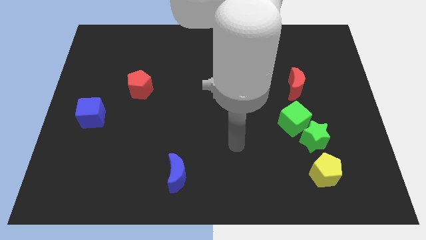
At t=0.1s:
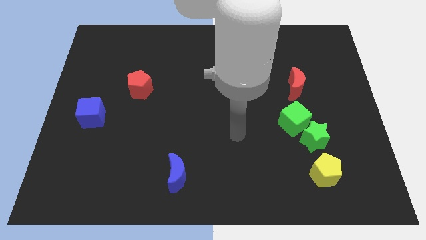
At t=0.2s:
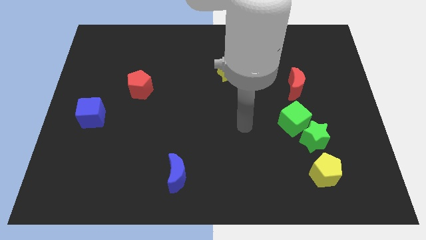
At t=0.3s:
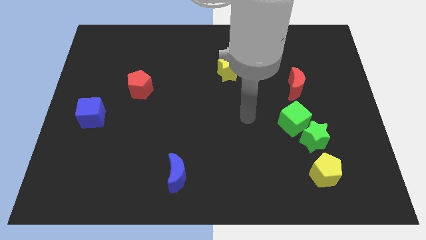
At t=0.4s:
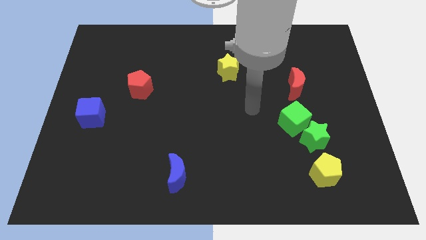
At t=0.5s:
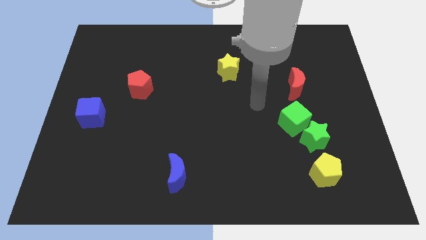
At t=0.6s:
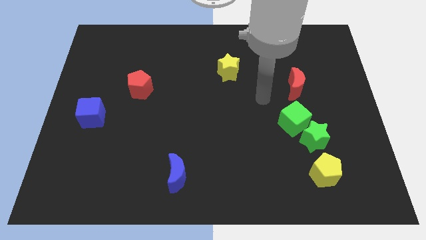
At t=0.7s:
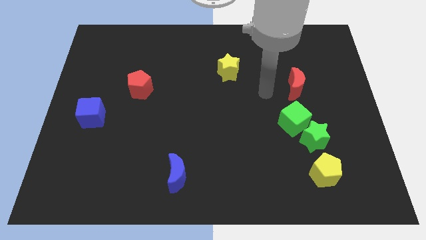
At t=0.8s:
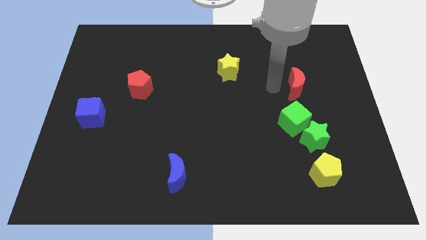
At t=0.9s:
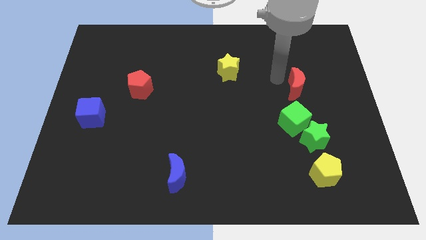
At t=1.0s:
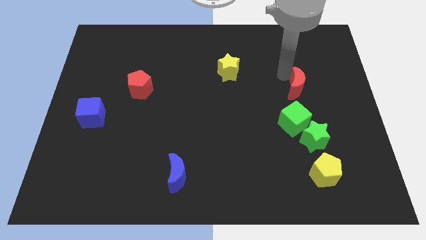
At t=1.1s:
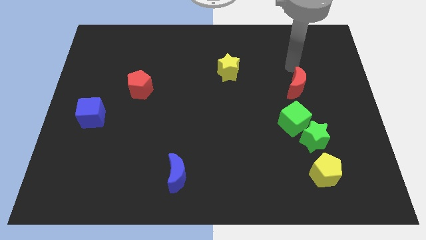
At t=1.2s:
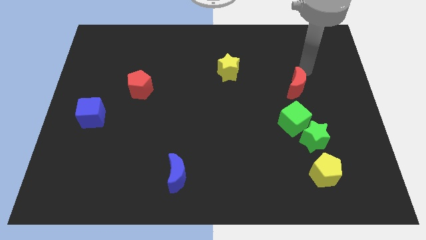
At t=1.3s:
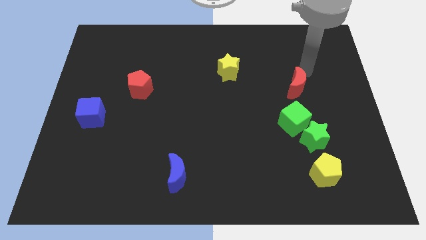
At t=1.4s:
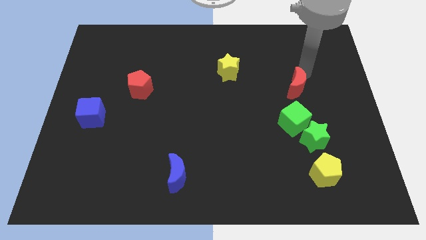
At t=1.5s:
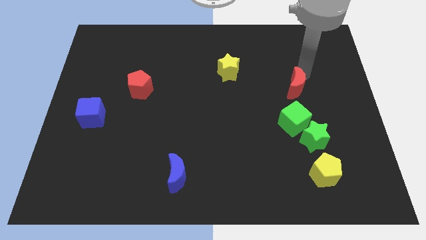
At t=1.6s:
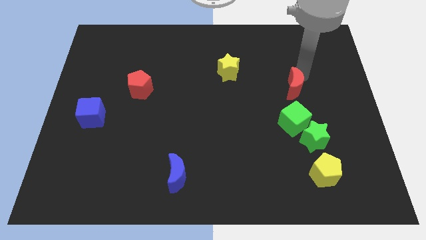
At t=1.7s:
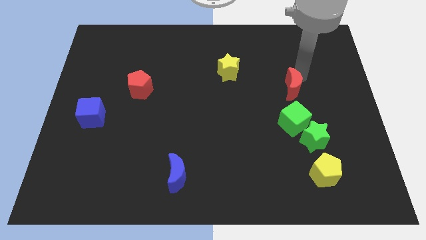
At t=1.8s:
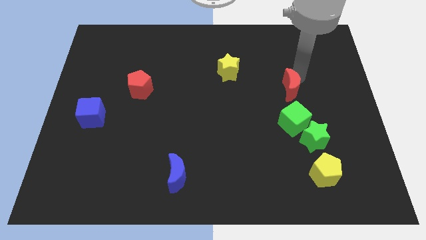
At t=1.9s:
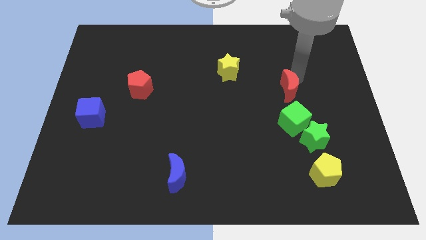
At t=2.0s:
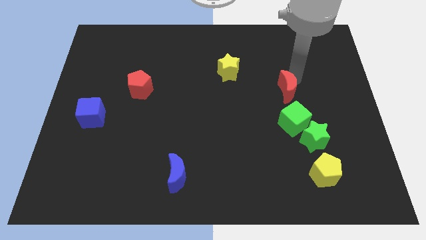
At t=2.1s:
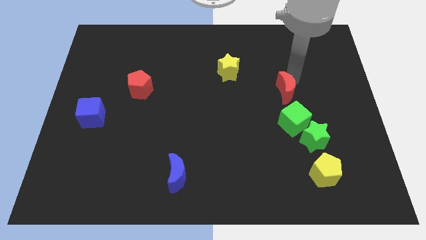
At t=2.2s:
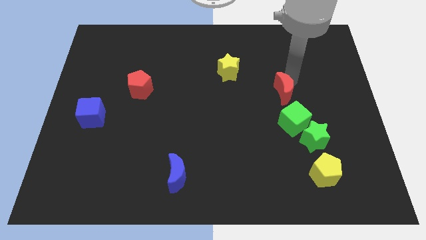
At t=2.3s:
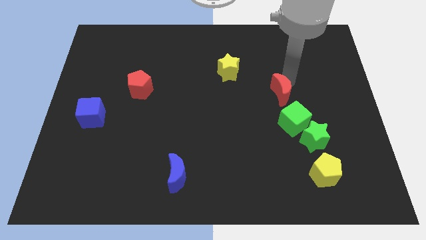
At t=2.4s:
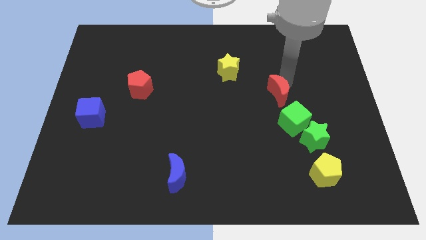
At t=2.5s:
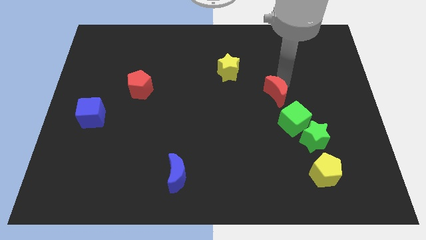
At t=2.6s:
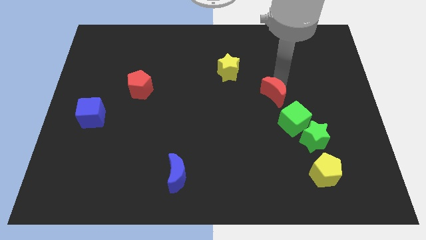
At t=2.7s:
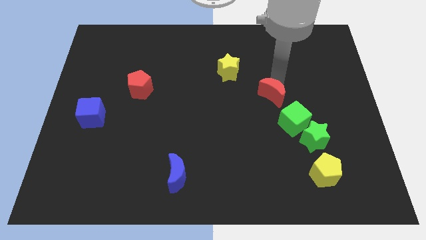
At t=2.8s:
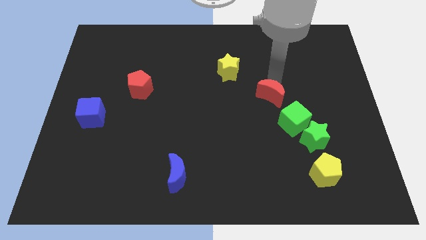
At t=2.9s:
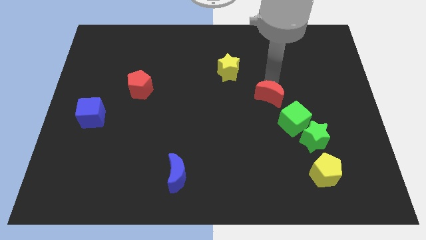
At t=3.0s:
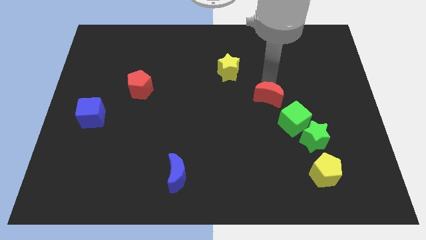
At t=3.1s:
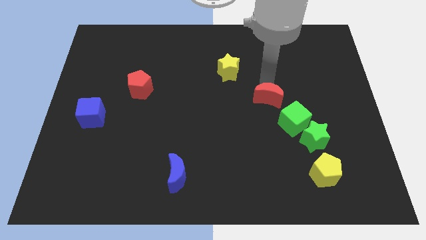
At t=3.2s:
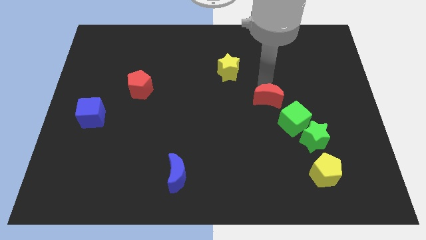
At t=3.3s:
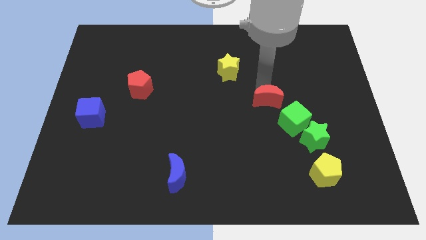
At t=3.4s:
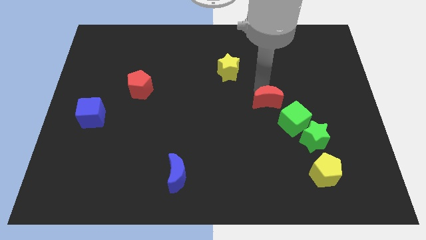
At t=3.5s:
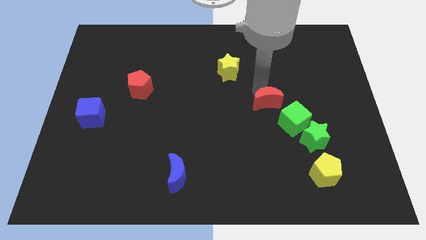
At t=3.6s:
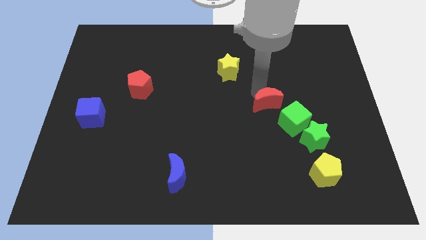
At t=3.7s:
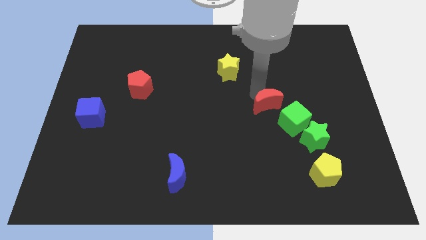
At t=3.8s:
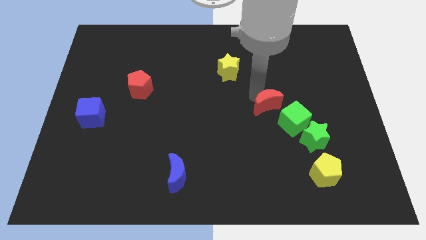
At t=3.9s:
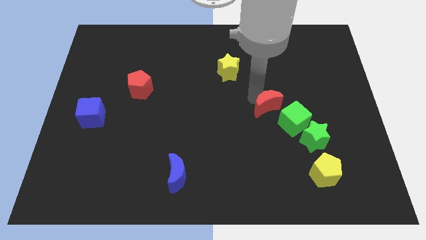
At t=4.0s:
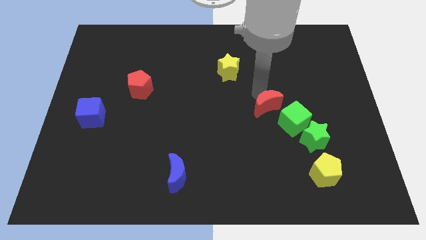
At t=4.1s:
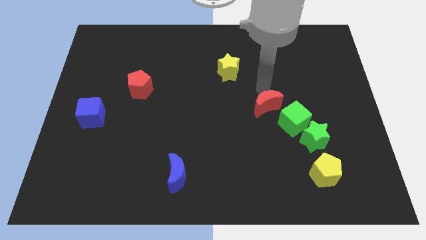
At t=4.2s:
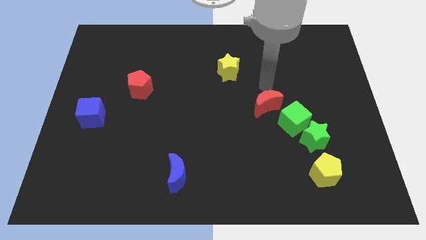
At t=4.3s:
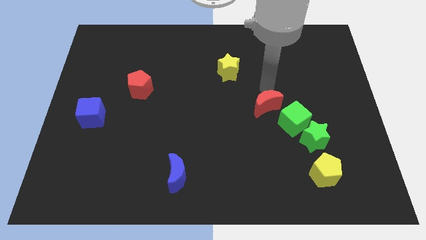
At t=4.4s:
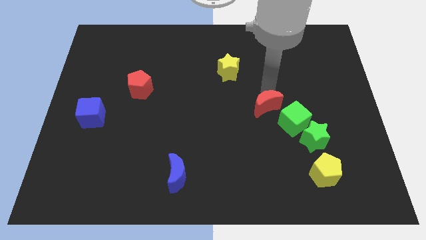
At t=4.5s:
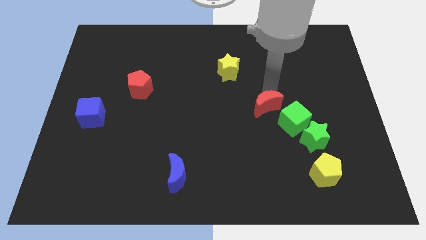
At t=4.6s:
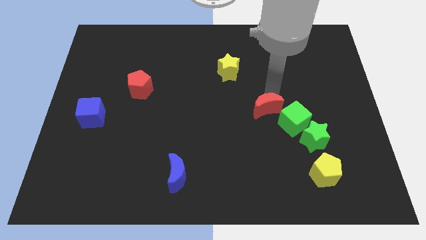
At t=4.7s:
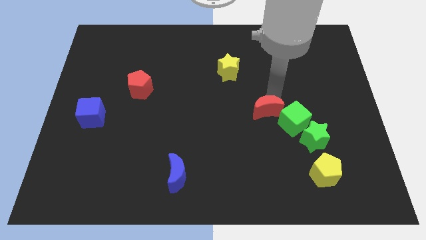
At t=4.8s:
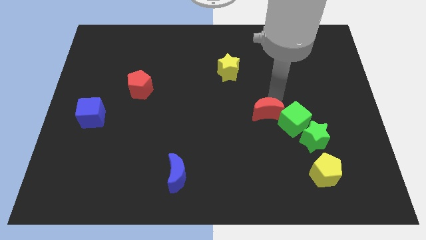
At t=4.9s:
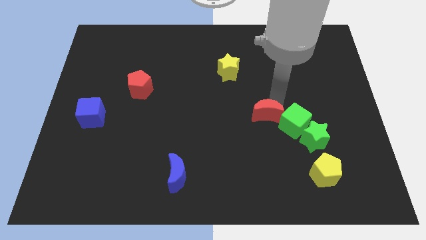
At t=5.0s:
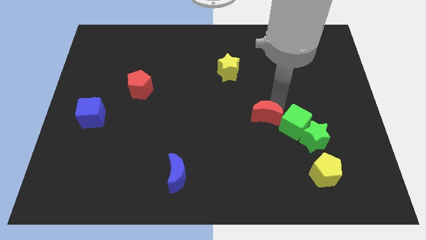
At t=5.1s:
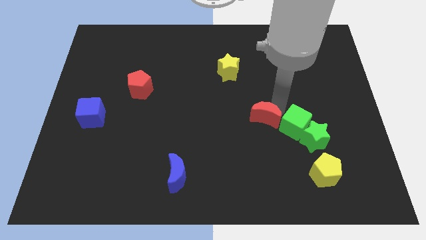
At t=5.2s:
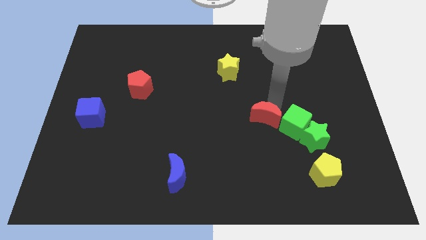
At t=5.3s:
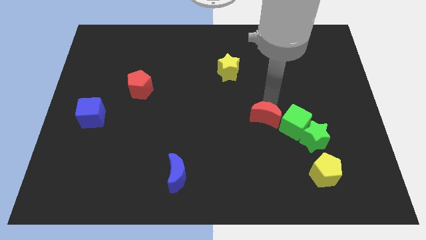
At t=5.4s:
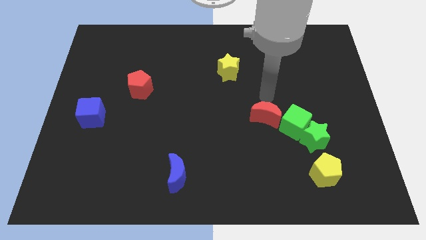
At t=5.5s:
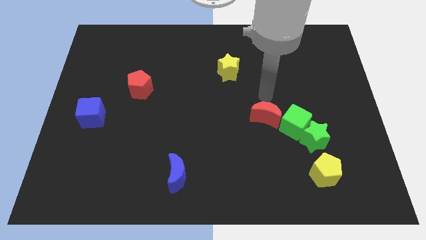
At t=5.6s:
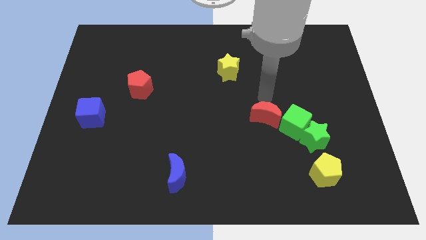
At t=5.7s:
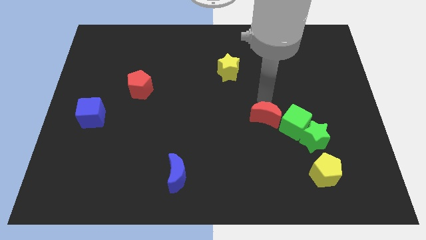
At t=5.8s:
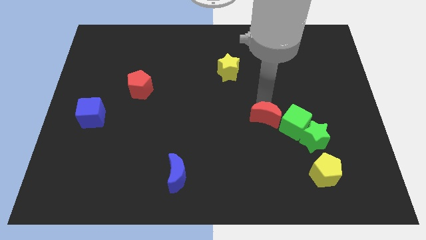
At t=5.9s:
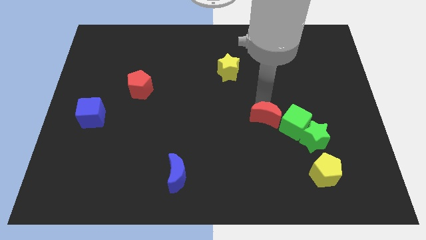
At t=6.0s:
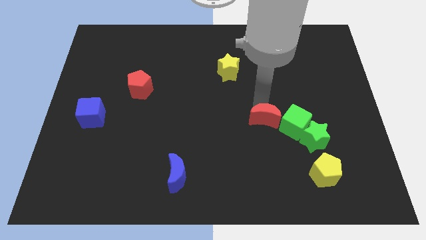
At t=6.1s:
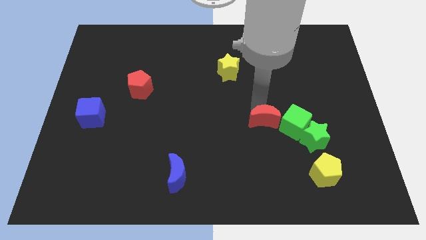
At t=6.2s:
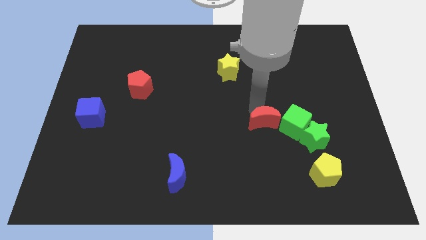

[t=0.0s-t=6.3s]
slide the red moon to the left of the green star

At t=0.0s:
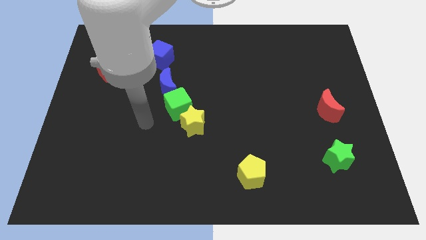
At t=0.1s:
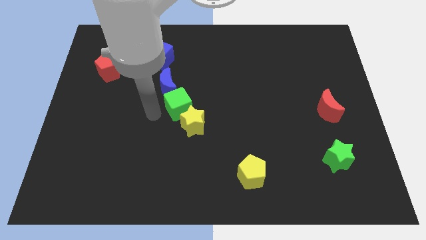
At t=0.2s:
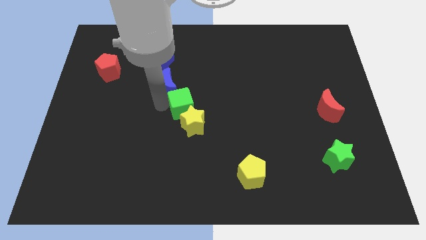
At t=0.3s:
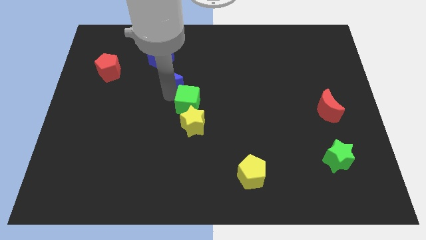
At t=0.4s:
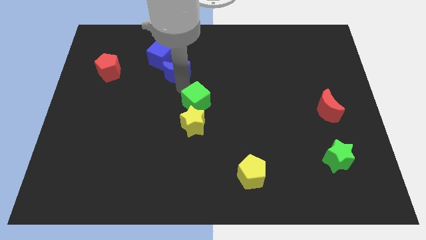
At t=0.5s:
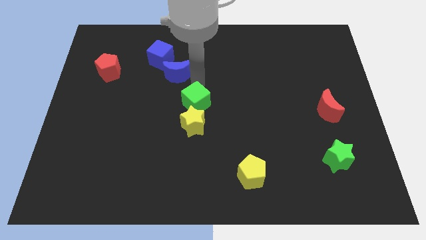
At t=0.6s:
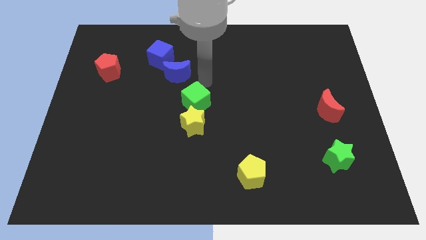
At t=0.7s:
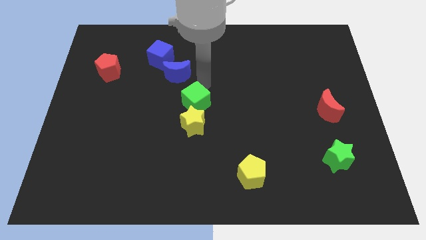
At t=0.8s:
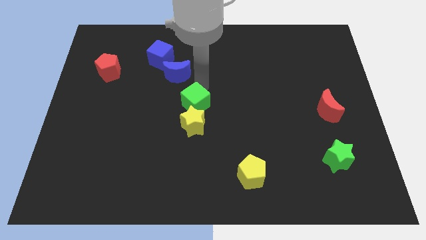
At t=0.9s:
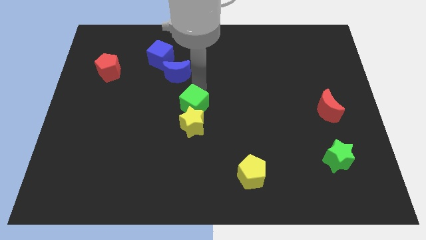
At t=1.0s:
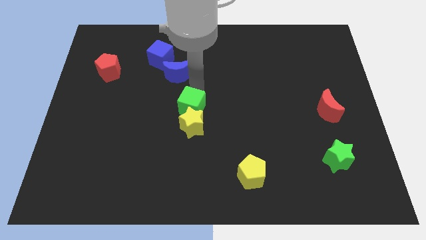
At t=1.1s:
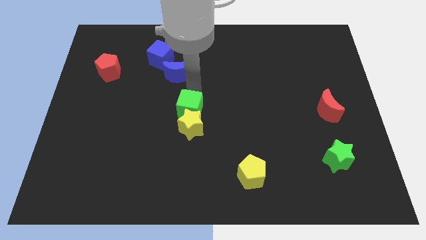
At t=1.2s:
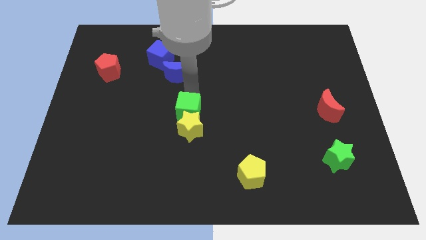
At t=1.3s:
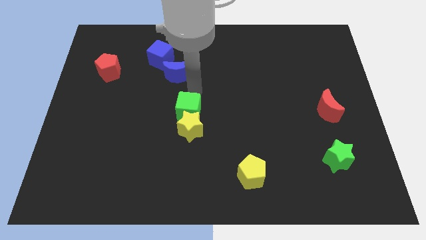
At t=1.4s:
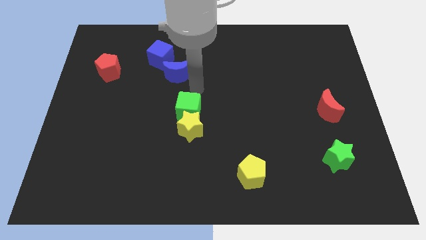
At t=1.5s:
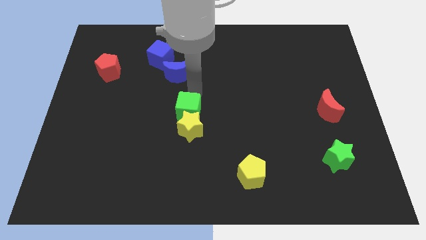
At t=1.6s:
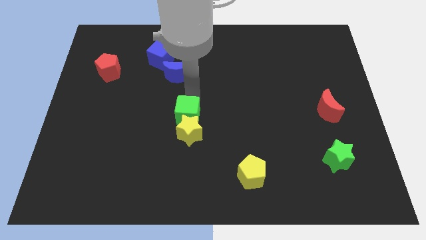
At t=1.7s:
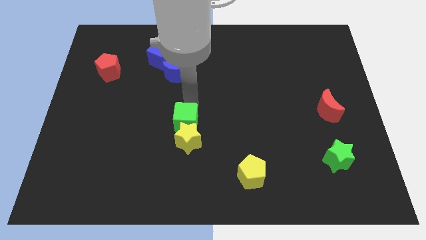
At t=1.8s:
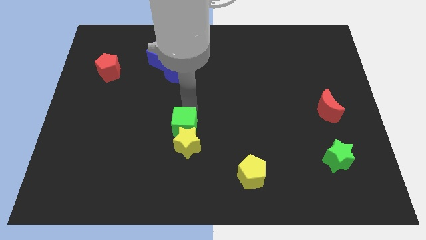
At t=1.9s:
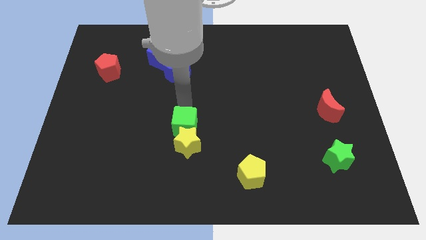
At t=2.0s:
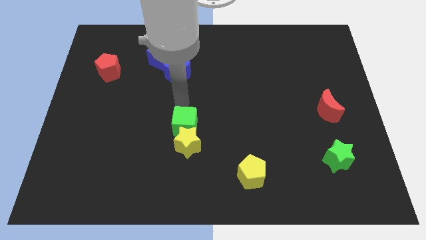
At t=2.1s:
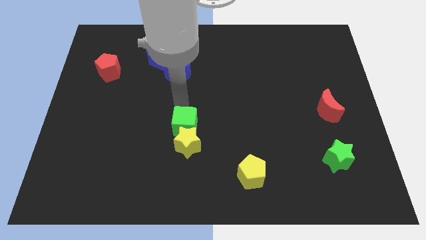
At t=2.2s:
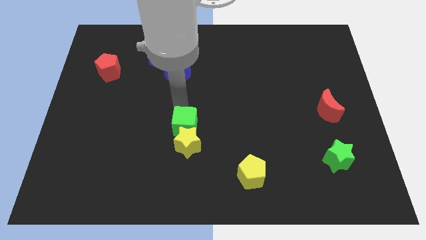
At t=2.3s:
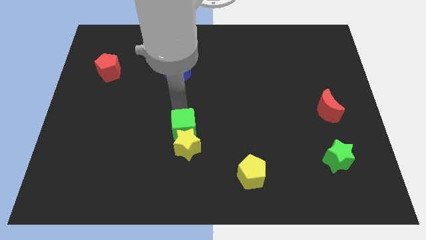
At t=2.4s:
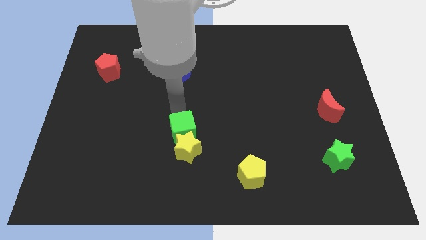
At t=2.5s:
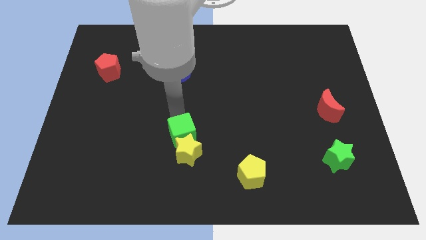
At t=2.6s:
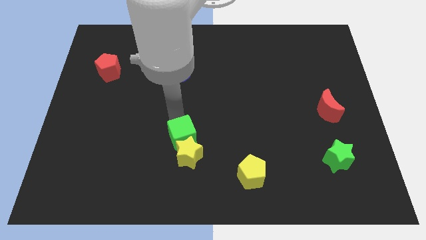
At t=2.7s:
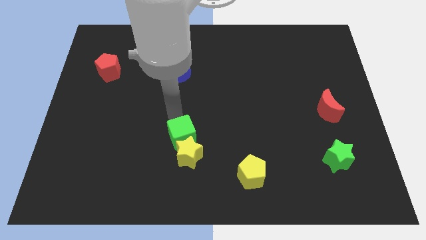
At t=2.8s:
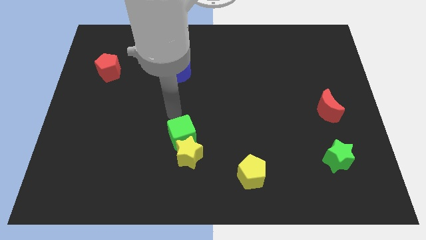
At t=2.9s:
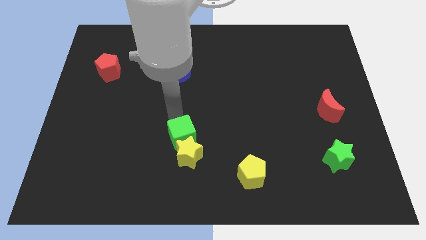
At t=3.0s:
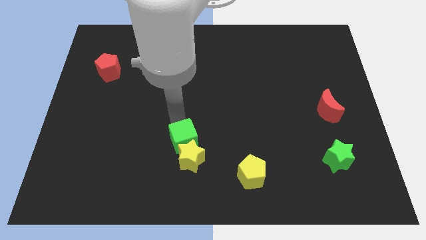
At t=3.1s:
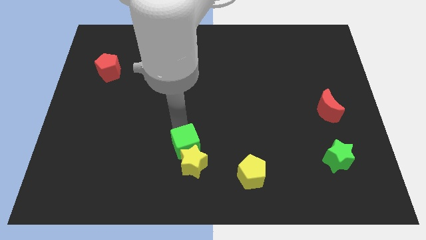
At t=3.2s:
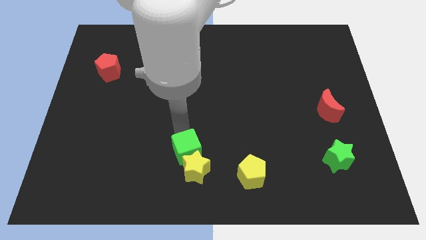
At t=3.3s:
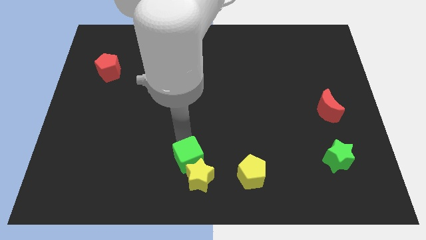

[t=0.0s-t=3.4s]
slide the green cube to the left of the yellow pentagon
